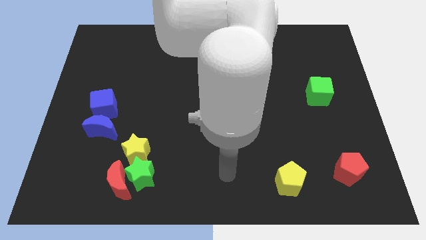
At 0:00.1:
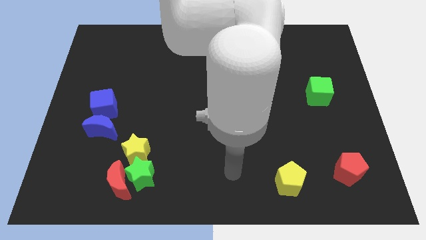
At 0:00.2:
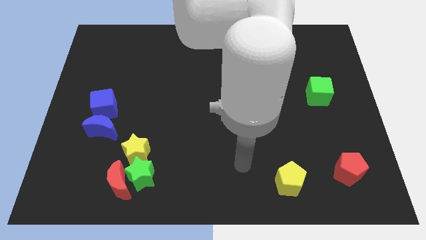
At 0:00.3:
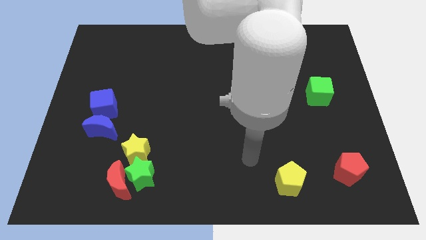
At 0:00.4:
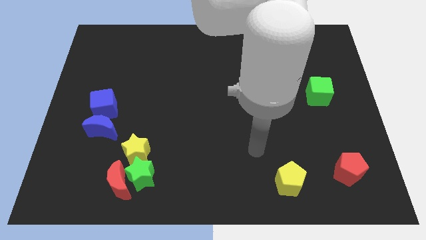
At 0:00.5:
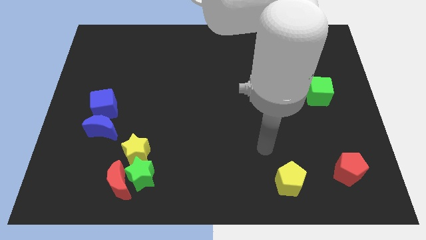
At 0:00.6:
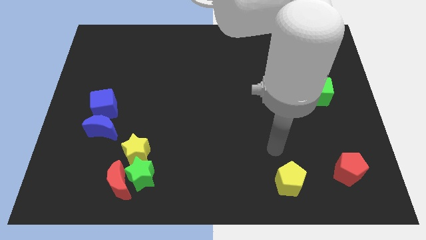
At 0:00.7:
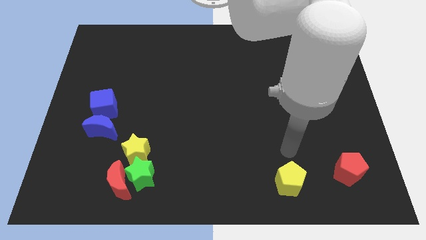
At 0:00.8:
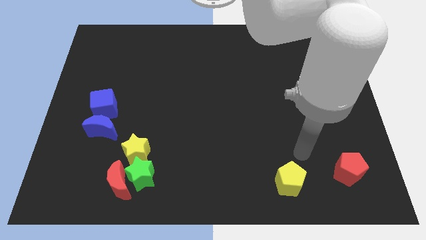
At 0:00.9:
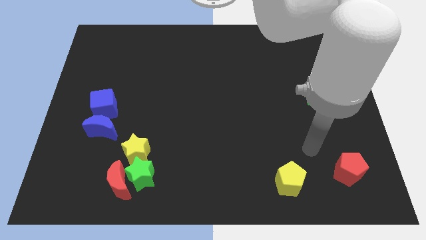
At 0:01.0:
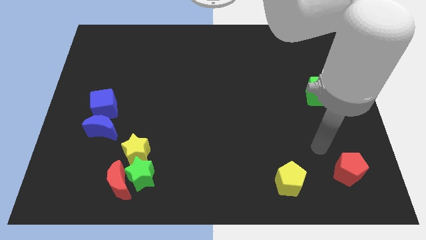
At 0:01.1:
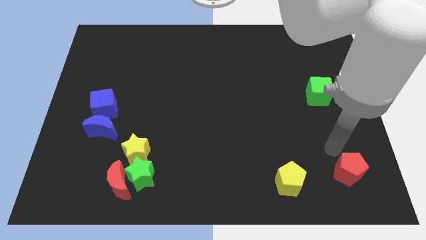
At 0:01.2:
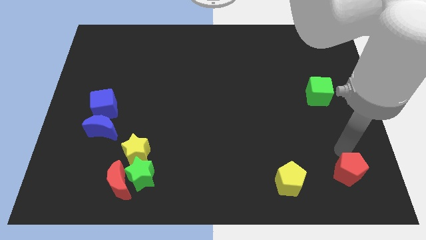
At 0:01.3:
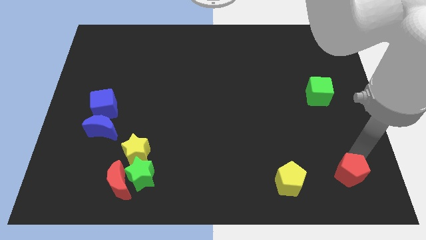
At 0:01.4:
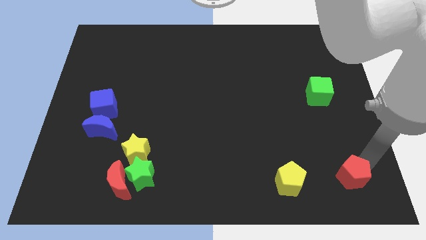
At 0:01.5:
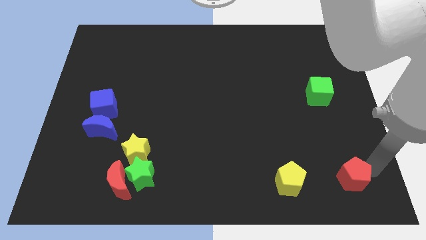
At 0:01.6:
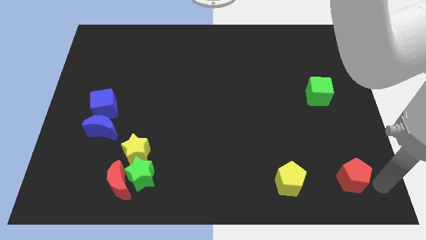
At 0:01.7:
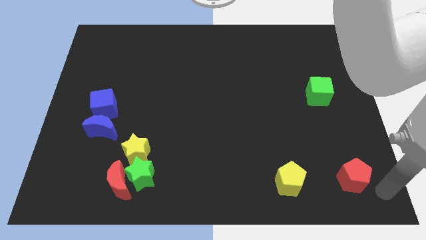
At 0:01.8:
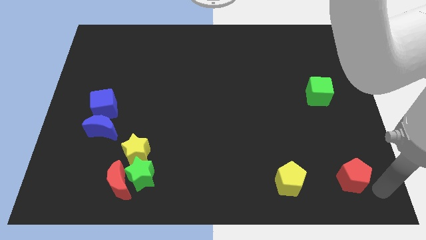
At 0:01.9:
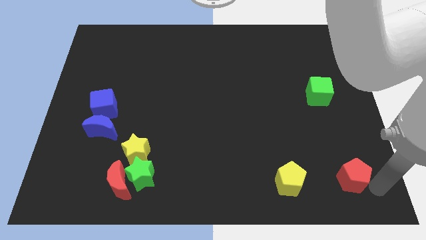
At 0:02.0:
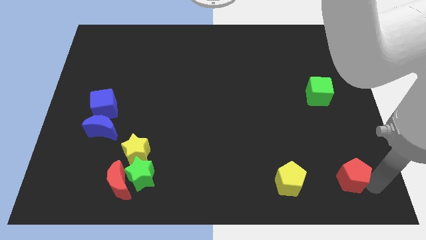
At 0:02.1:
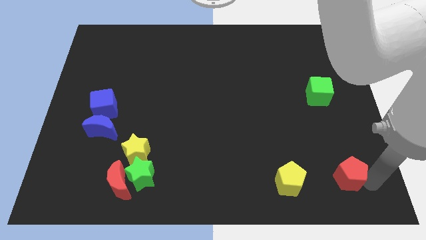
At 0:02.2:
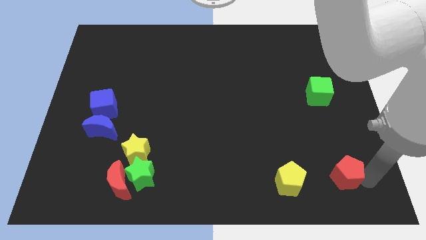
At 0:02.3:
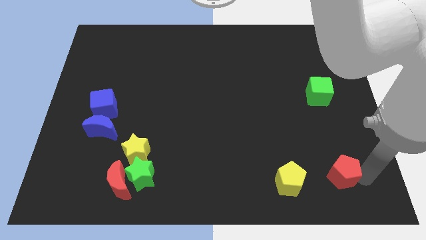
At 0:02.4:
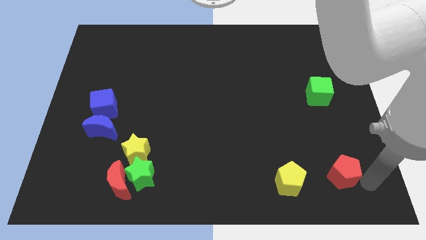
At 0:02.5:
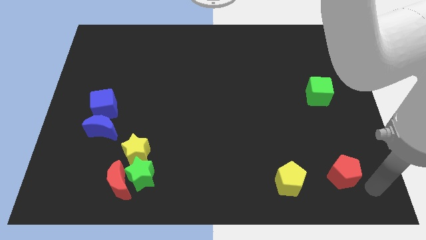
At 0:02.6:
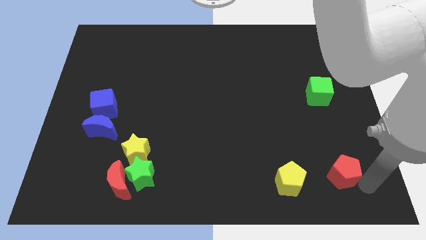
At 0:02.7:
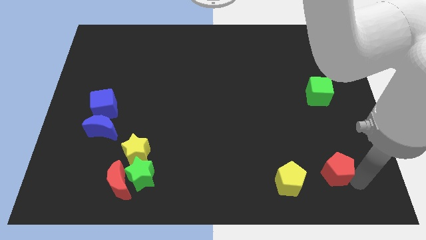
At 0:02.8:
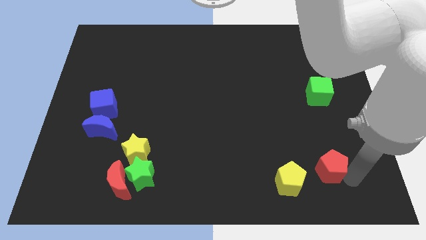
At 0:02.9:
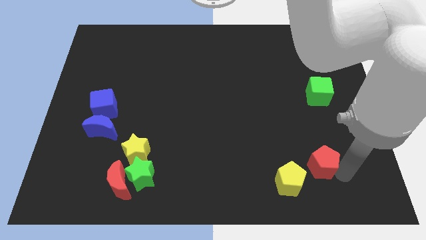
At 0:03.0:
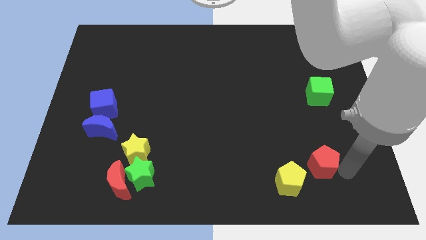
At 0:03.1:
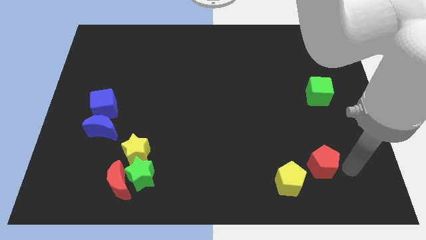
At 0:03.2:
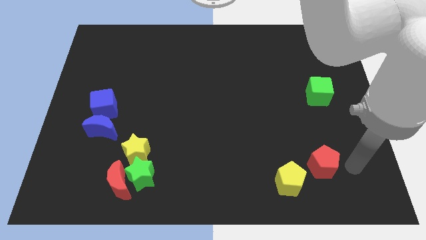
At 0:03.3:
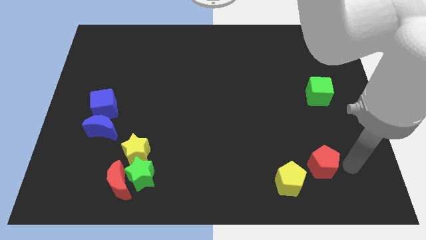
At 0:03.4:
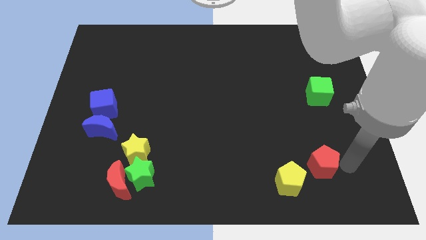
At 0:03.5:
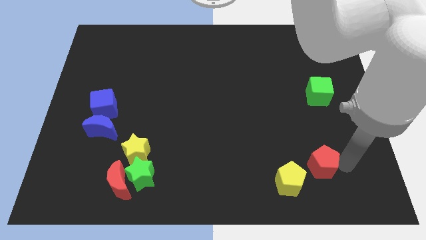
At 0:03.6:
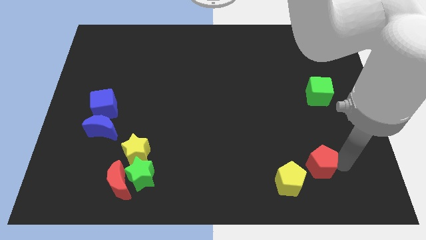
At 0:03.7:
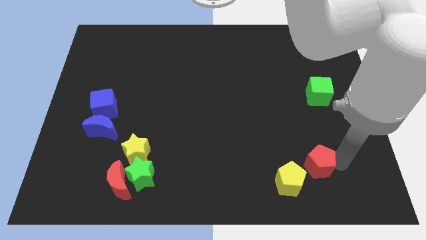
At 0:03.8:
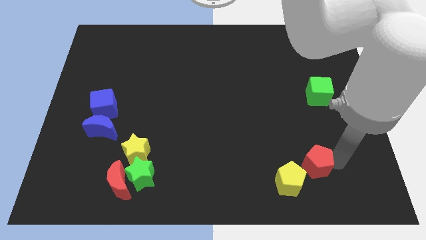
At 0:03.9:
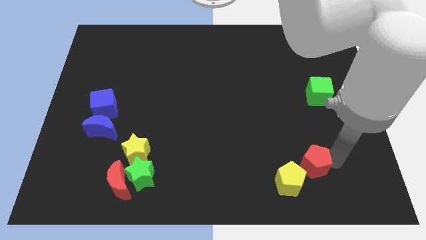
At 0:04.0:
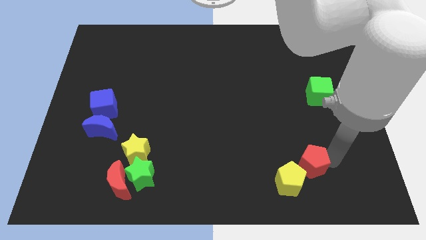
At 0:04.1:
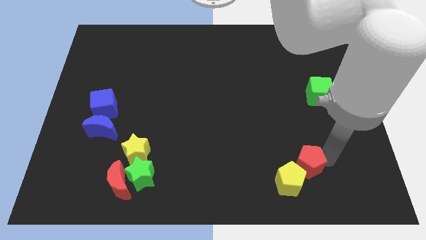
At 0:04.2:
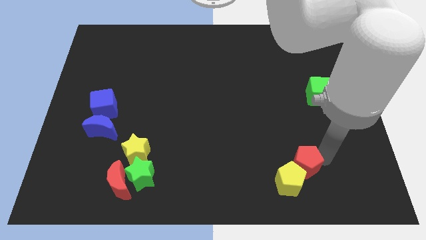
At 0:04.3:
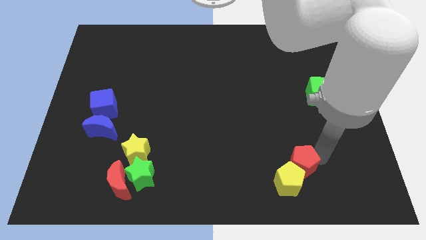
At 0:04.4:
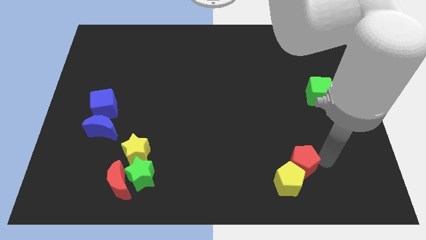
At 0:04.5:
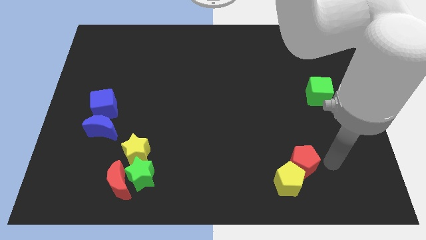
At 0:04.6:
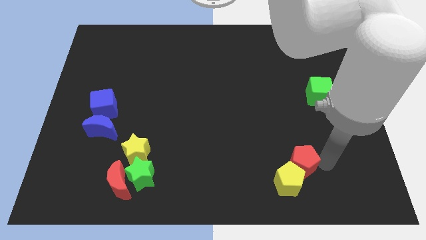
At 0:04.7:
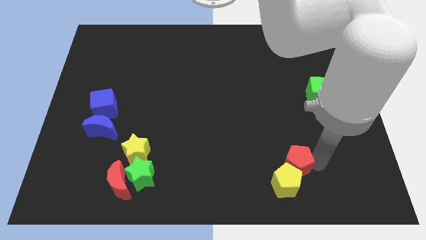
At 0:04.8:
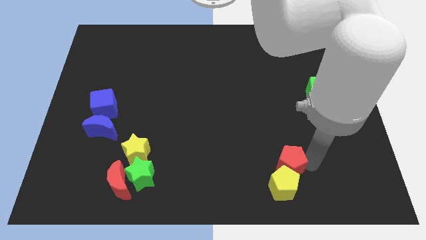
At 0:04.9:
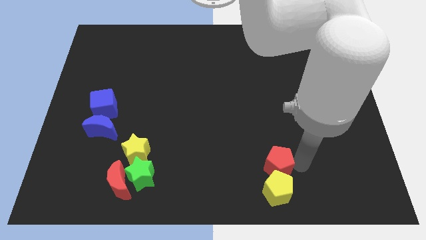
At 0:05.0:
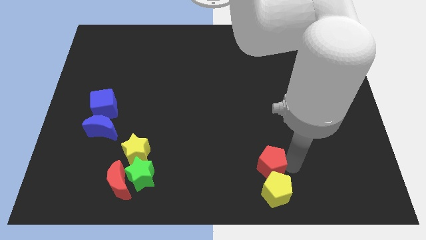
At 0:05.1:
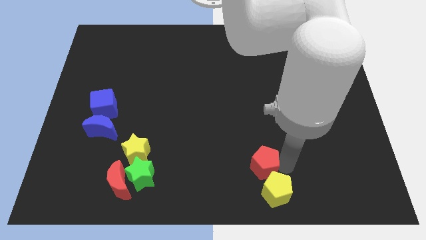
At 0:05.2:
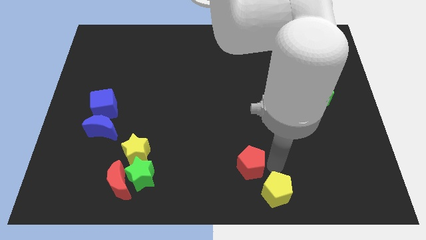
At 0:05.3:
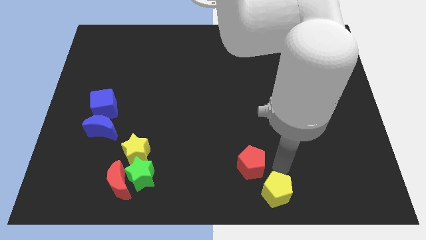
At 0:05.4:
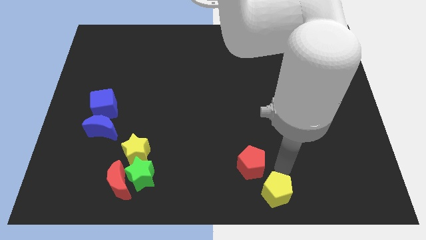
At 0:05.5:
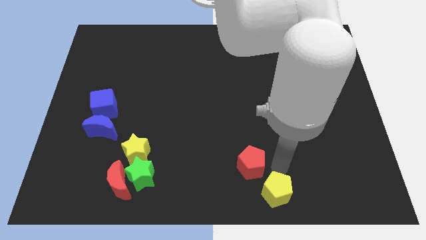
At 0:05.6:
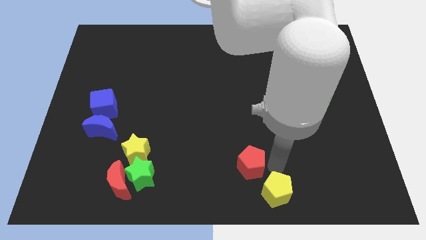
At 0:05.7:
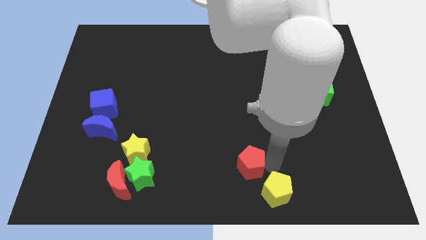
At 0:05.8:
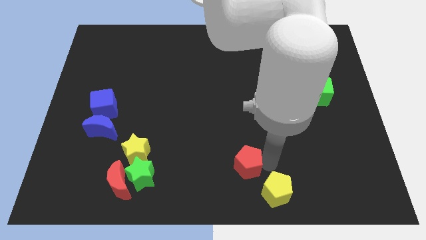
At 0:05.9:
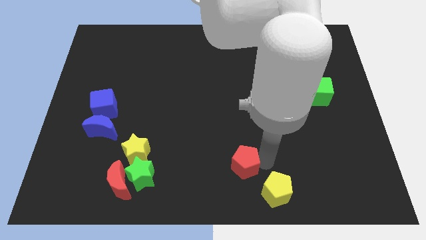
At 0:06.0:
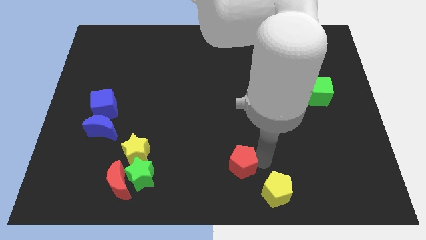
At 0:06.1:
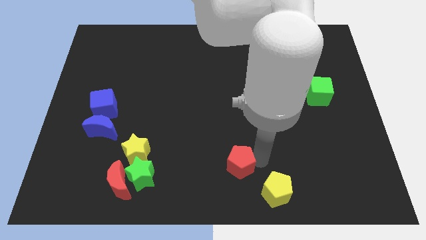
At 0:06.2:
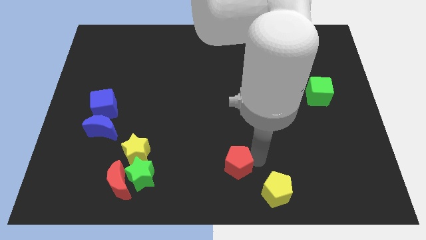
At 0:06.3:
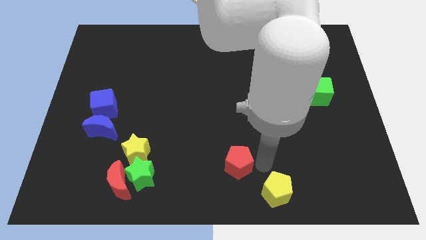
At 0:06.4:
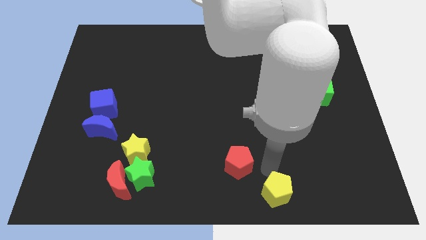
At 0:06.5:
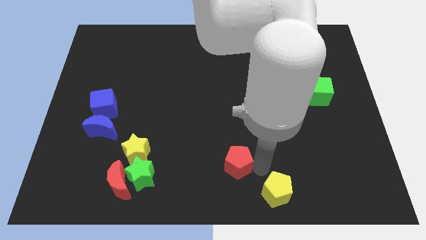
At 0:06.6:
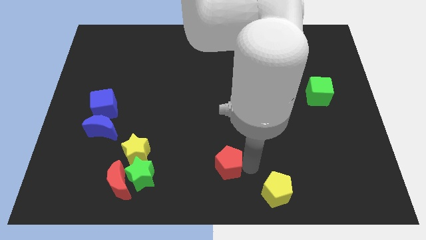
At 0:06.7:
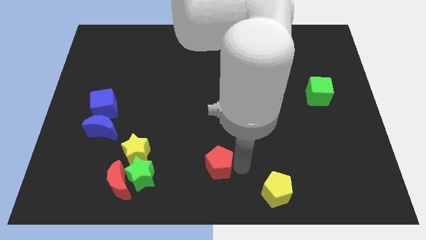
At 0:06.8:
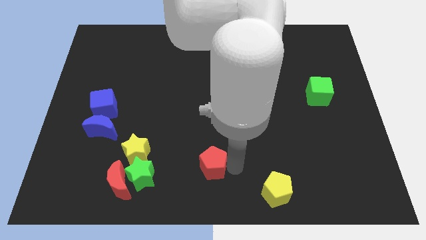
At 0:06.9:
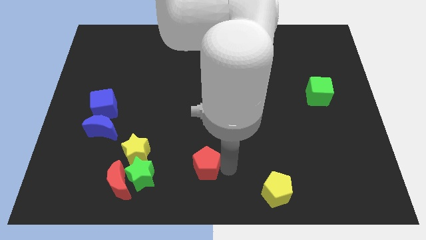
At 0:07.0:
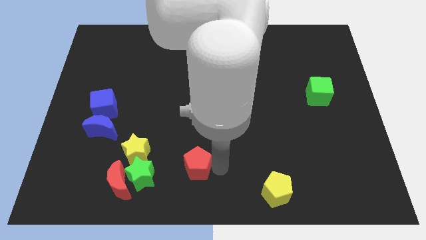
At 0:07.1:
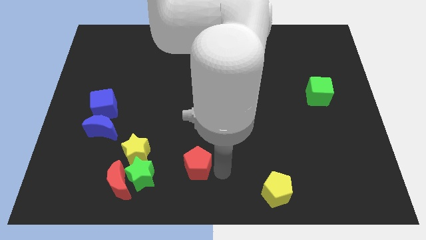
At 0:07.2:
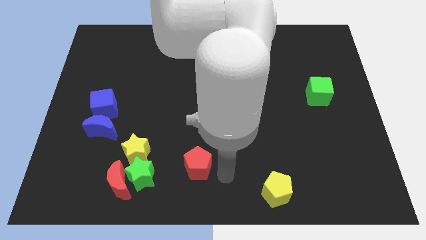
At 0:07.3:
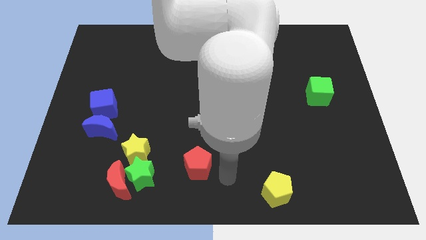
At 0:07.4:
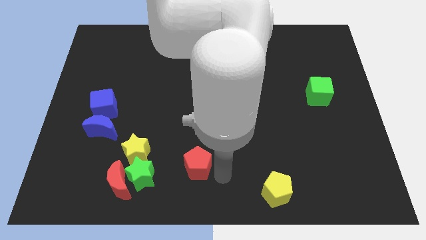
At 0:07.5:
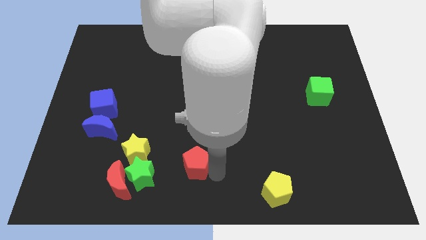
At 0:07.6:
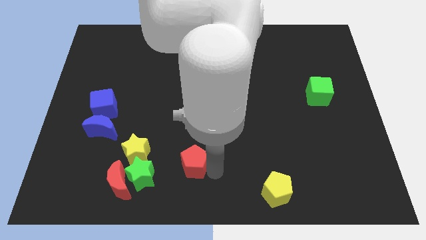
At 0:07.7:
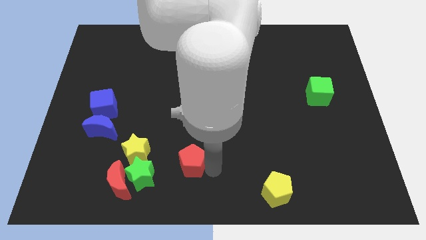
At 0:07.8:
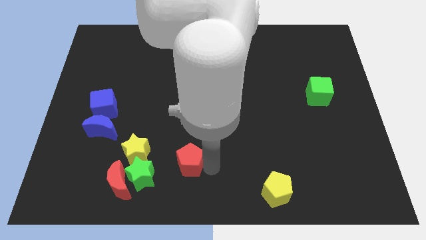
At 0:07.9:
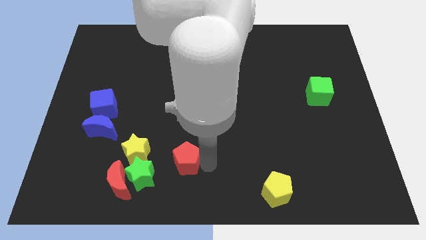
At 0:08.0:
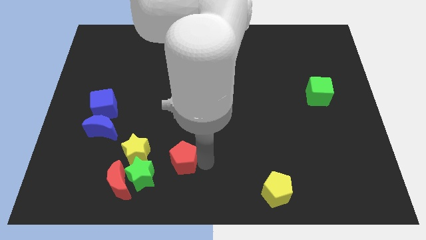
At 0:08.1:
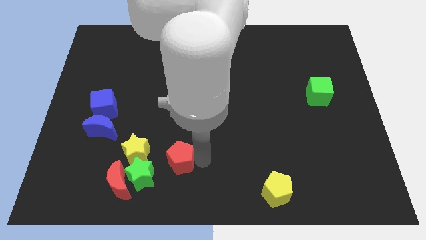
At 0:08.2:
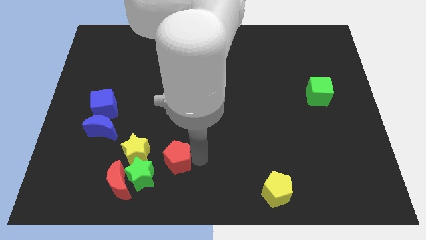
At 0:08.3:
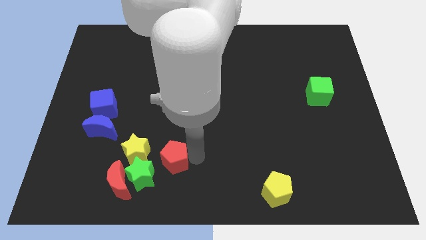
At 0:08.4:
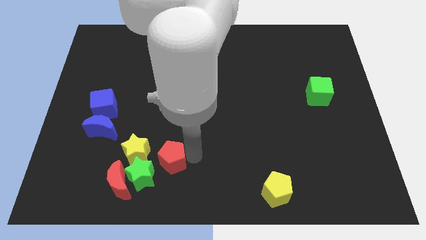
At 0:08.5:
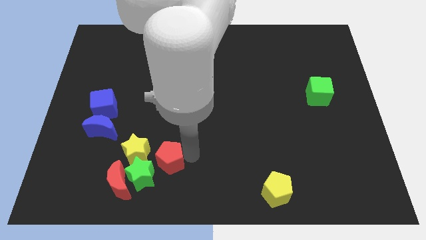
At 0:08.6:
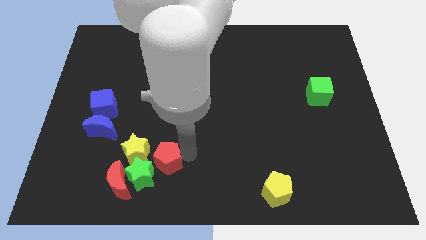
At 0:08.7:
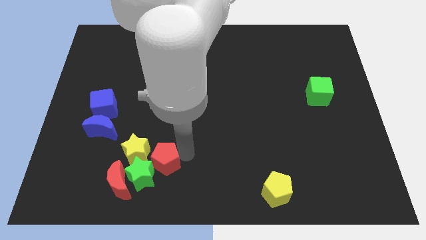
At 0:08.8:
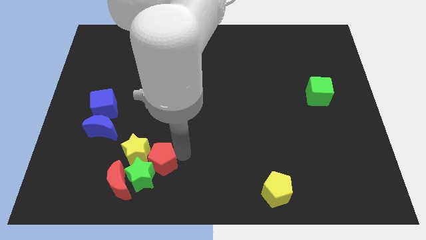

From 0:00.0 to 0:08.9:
put the red pentagon to the yellow star
